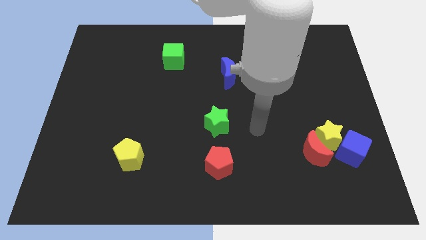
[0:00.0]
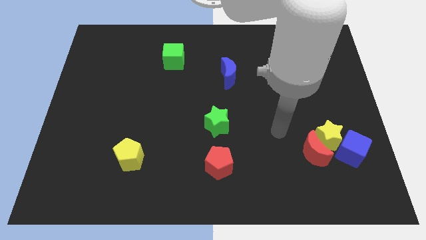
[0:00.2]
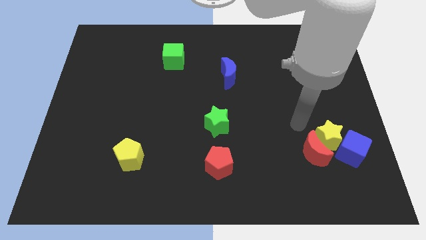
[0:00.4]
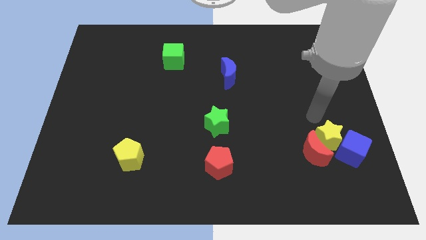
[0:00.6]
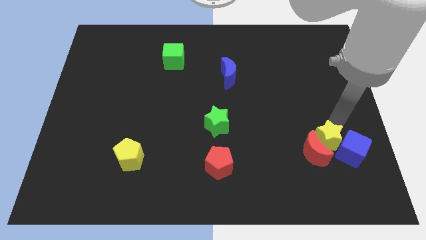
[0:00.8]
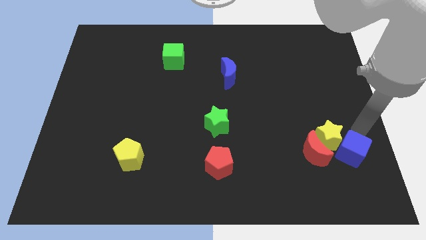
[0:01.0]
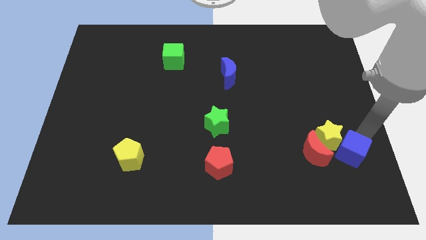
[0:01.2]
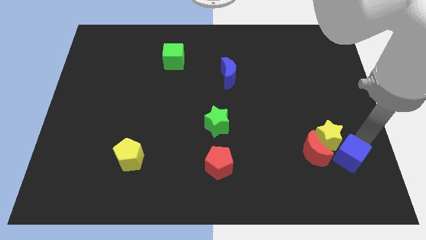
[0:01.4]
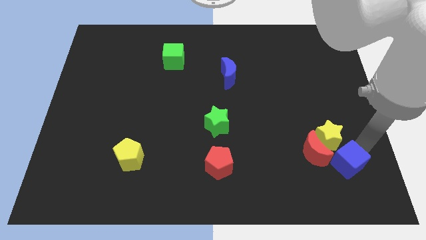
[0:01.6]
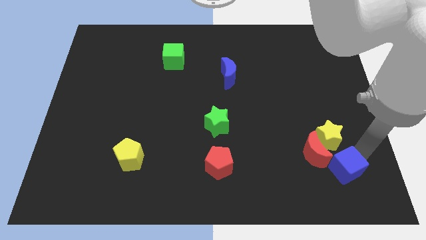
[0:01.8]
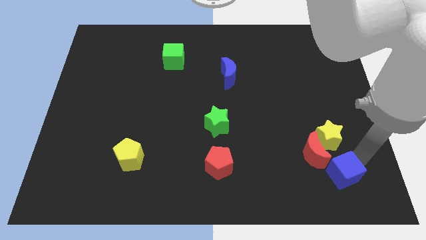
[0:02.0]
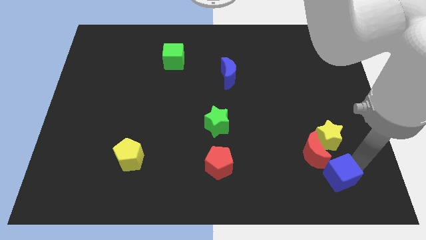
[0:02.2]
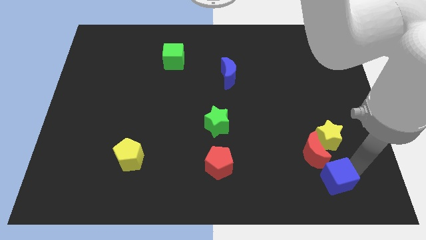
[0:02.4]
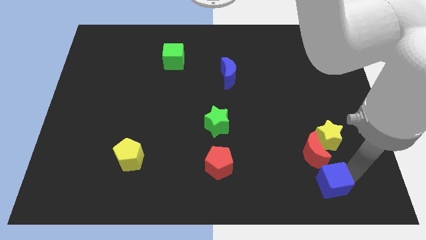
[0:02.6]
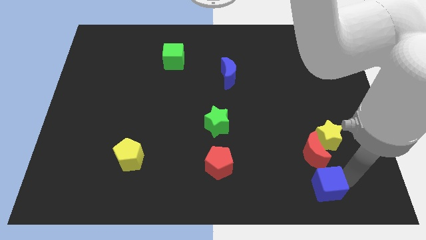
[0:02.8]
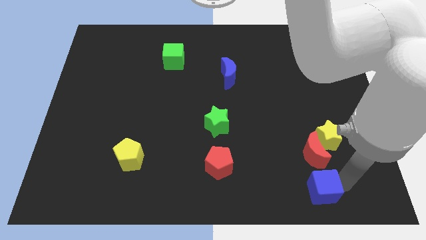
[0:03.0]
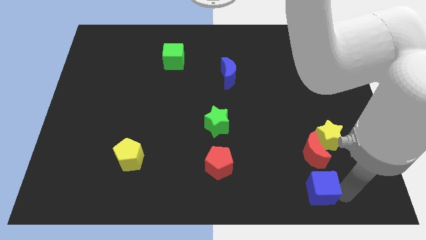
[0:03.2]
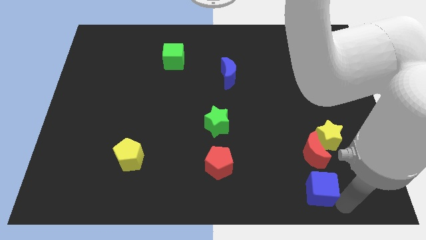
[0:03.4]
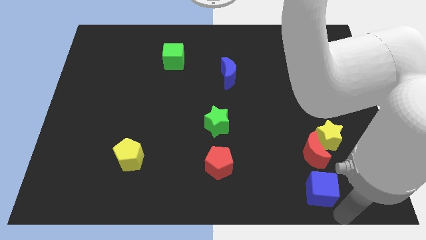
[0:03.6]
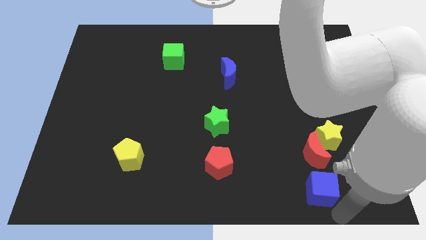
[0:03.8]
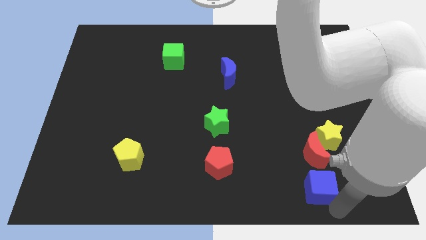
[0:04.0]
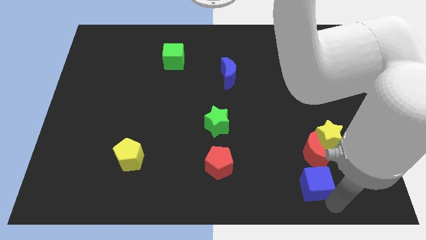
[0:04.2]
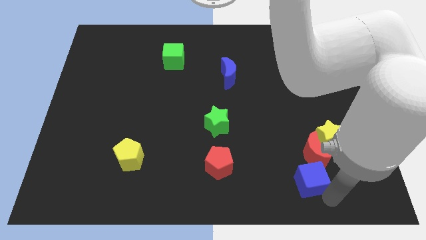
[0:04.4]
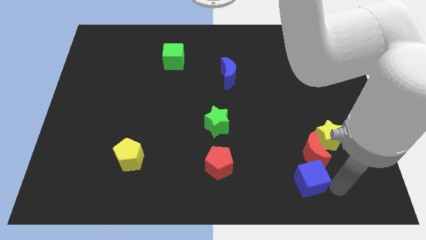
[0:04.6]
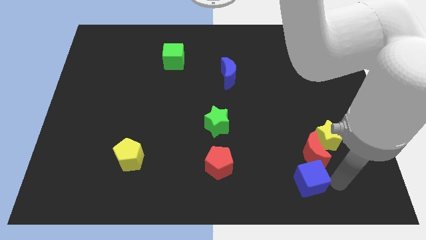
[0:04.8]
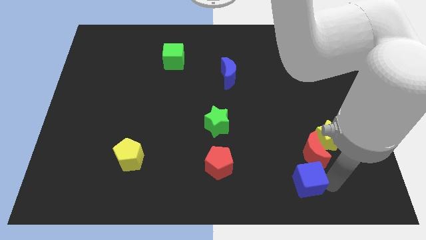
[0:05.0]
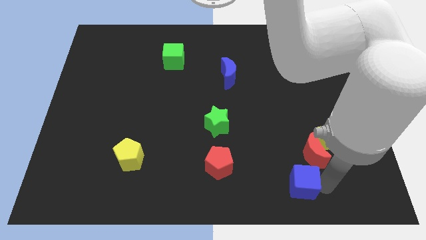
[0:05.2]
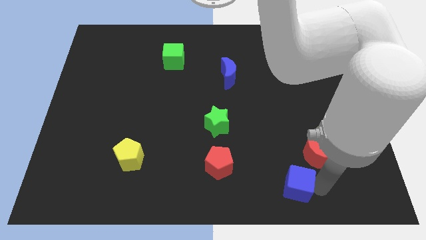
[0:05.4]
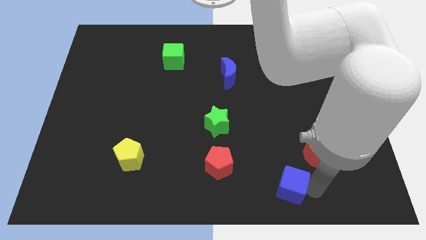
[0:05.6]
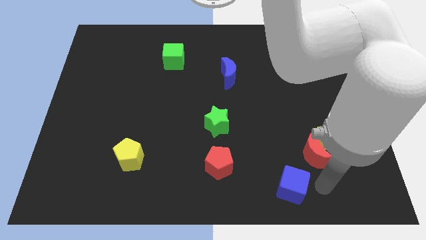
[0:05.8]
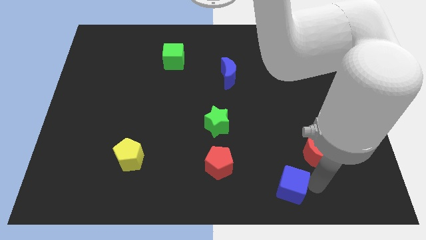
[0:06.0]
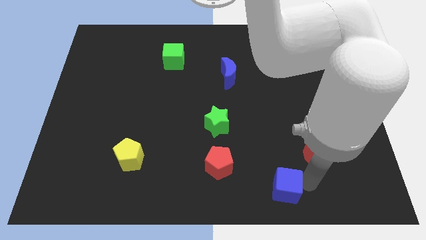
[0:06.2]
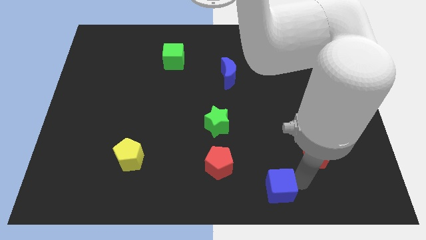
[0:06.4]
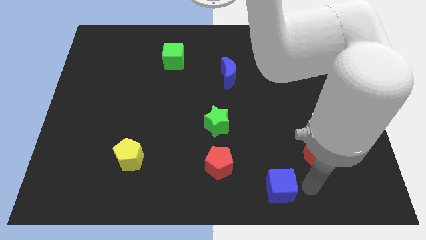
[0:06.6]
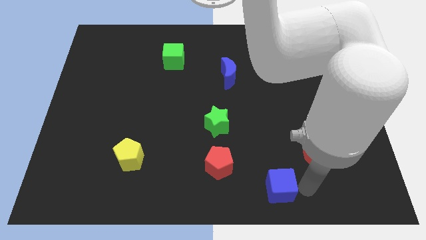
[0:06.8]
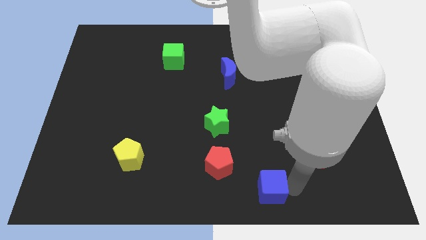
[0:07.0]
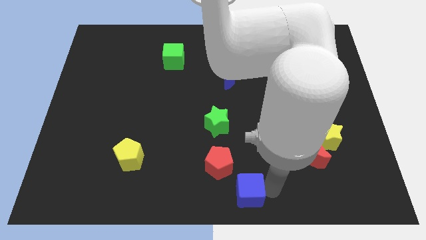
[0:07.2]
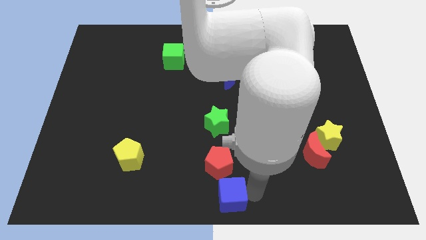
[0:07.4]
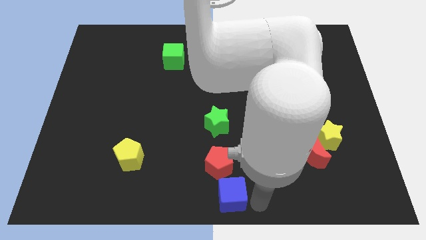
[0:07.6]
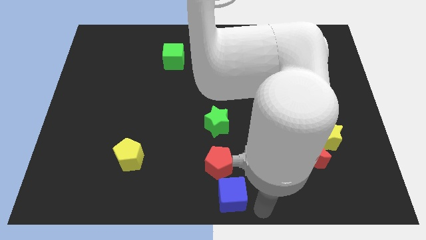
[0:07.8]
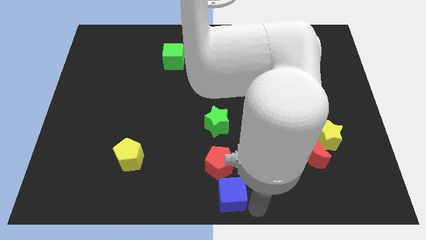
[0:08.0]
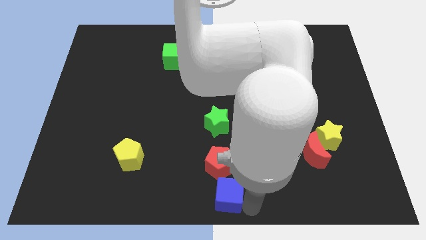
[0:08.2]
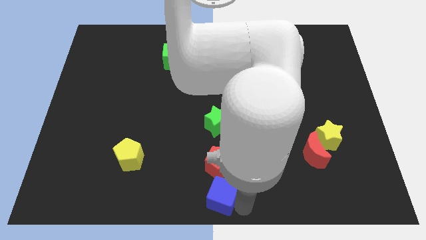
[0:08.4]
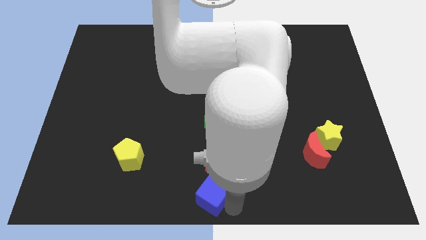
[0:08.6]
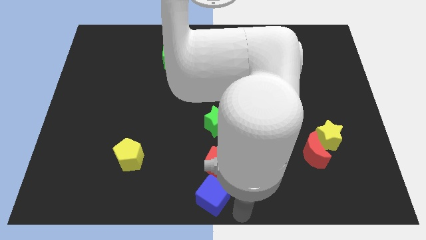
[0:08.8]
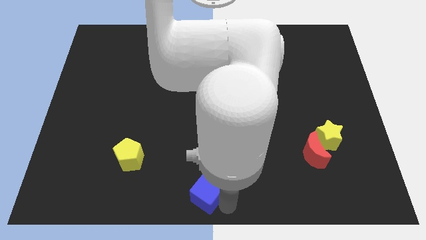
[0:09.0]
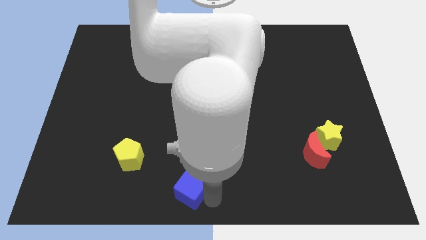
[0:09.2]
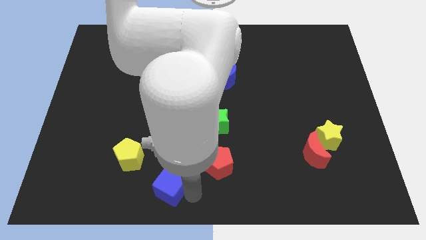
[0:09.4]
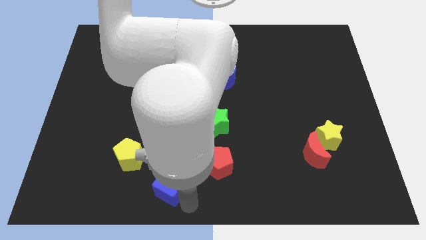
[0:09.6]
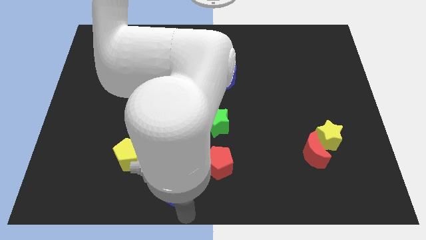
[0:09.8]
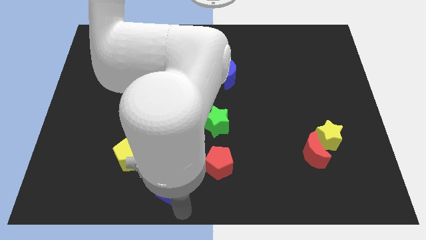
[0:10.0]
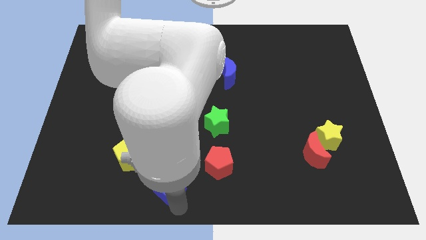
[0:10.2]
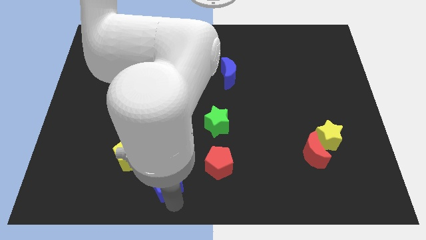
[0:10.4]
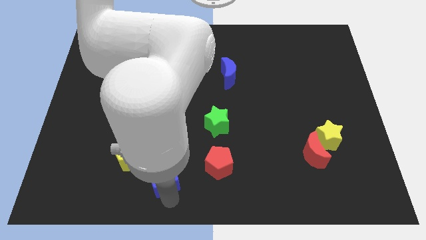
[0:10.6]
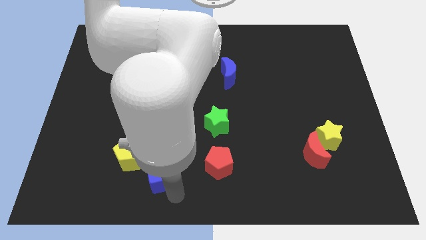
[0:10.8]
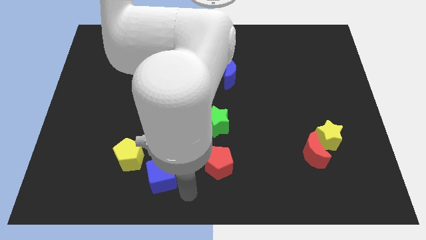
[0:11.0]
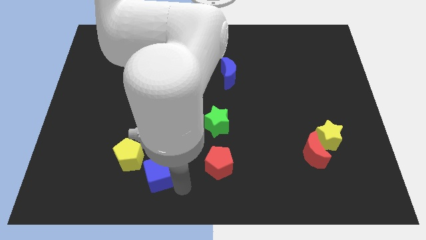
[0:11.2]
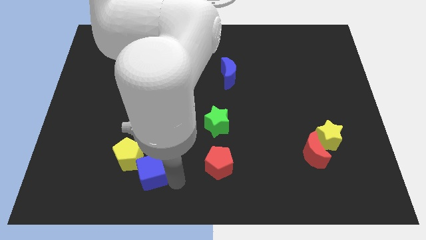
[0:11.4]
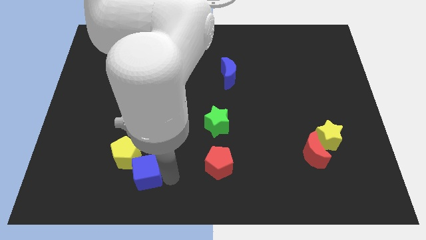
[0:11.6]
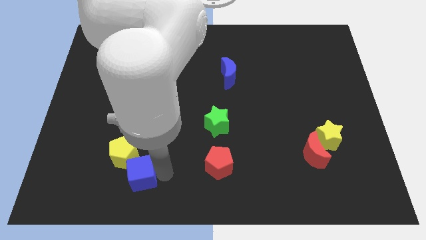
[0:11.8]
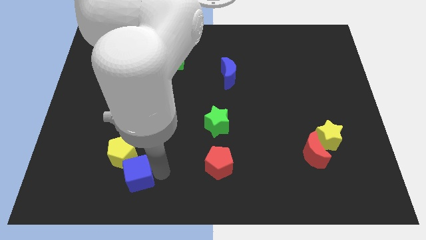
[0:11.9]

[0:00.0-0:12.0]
push the blue cube to the yellow pentagon

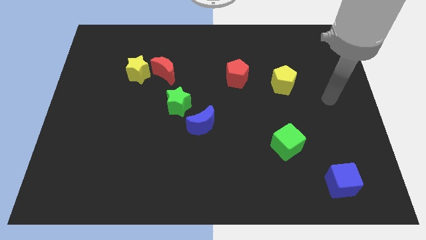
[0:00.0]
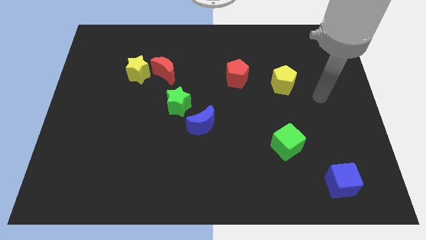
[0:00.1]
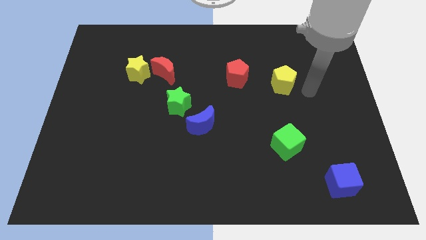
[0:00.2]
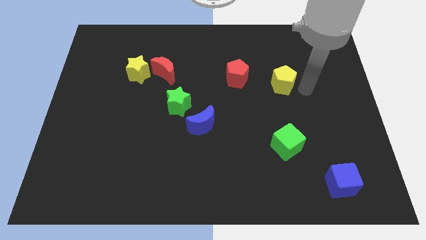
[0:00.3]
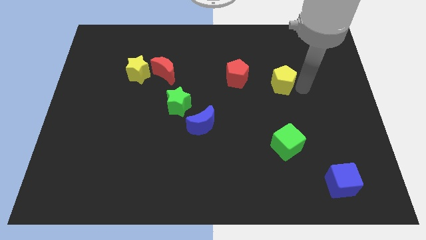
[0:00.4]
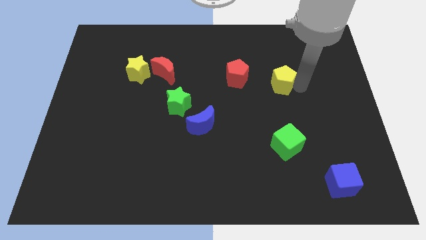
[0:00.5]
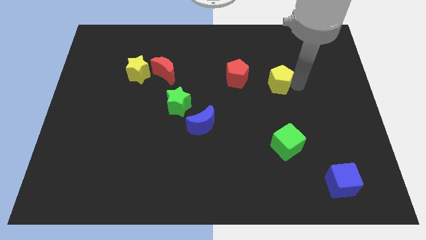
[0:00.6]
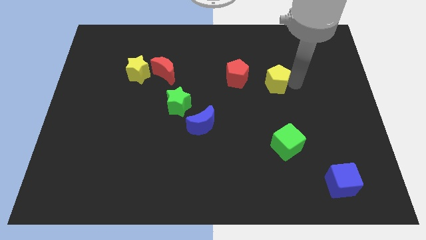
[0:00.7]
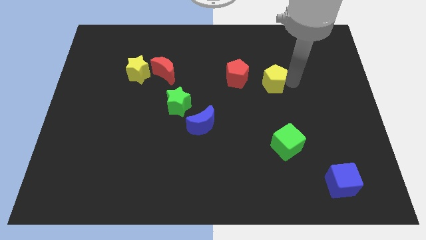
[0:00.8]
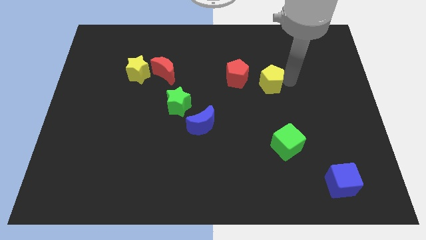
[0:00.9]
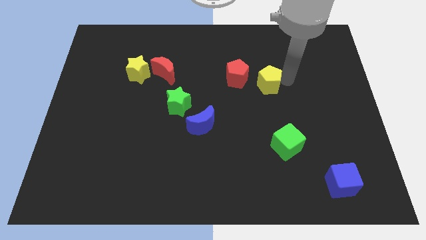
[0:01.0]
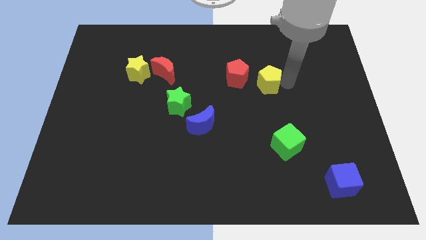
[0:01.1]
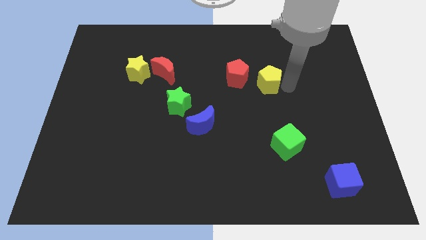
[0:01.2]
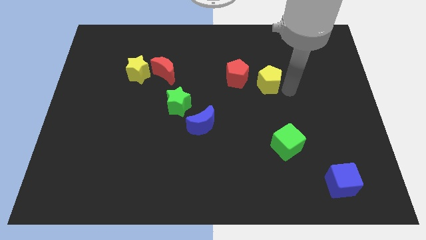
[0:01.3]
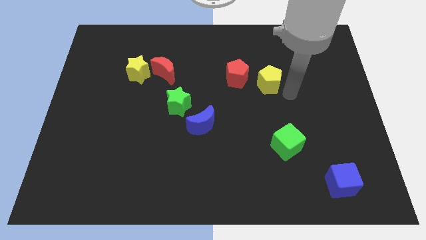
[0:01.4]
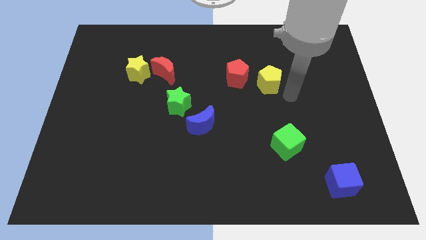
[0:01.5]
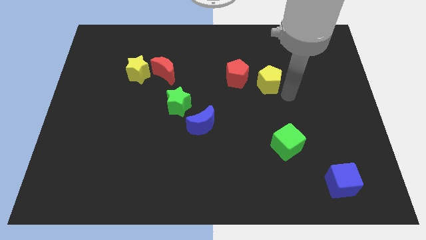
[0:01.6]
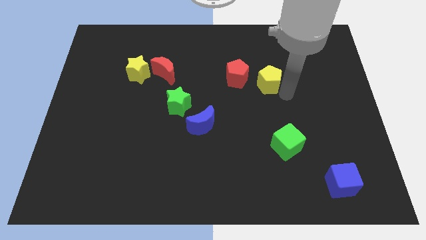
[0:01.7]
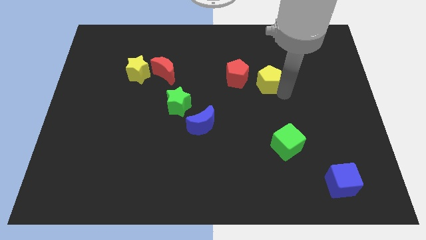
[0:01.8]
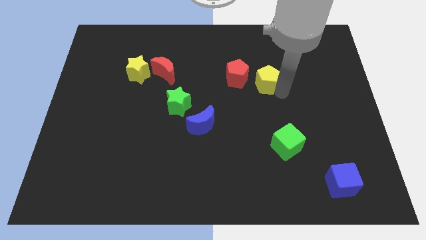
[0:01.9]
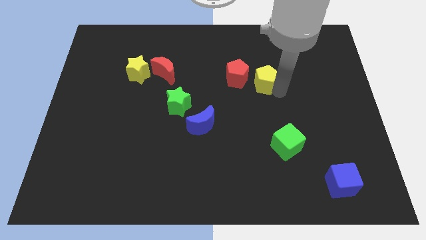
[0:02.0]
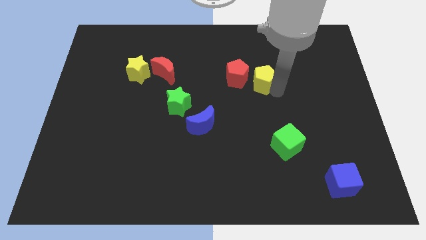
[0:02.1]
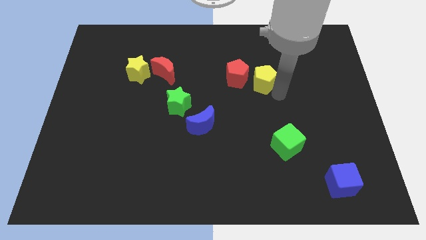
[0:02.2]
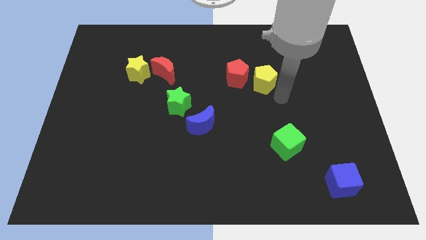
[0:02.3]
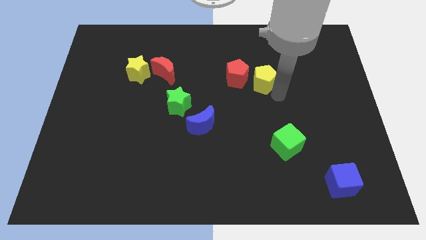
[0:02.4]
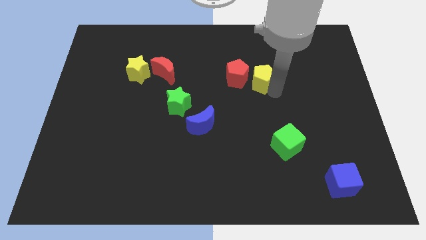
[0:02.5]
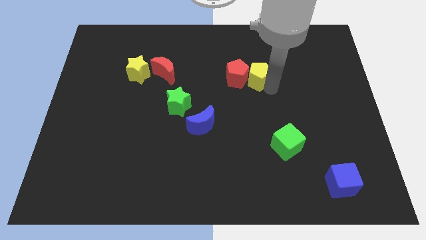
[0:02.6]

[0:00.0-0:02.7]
slide the yellow pentagon next to the red pentagon
